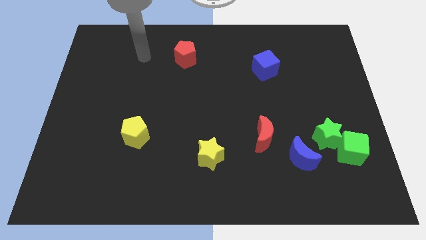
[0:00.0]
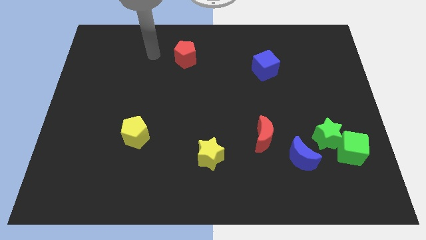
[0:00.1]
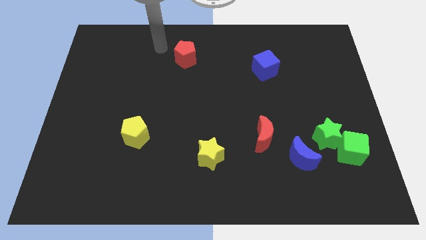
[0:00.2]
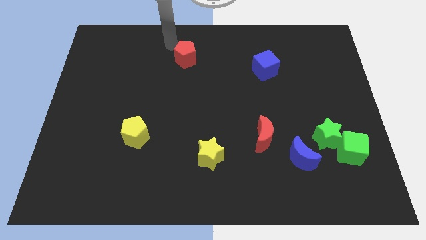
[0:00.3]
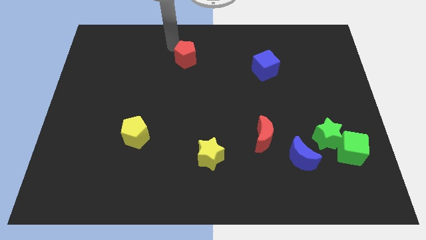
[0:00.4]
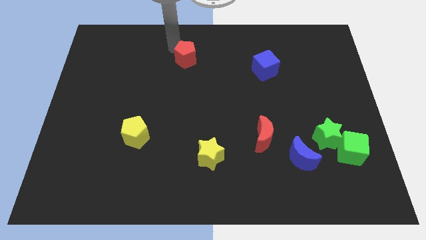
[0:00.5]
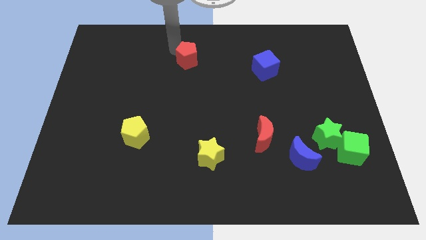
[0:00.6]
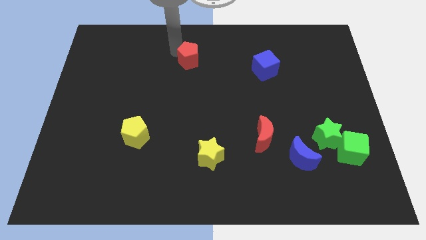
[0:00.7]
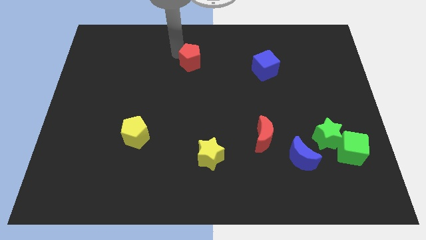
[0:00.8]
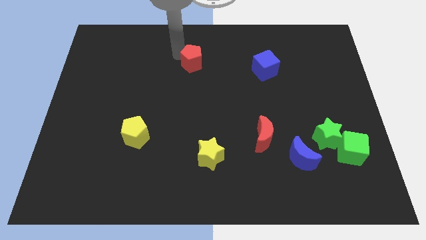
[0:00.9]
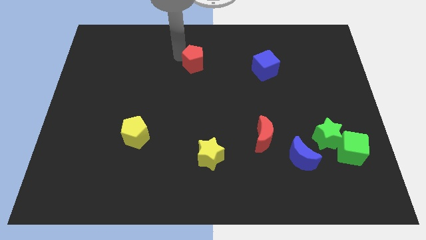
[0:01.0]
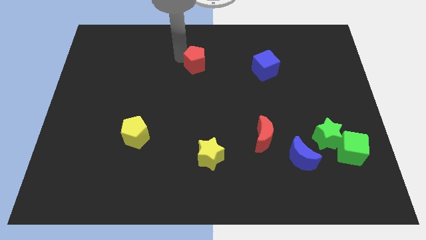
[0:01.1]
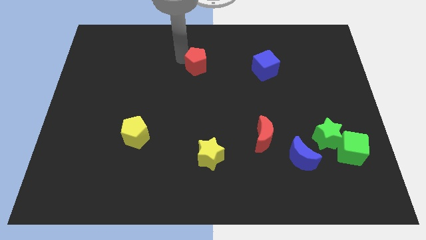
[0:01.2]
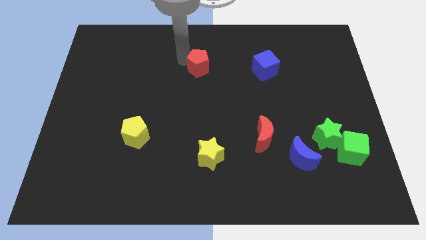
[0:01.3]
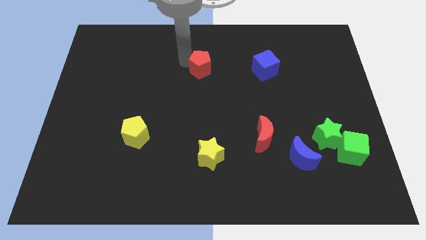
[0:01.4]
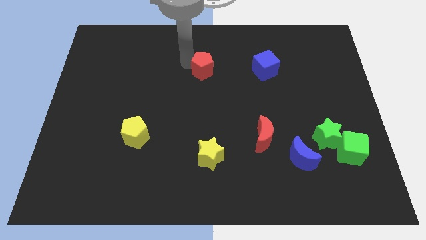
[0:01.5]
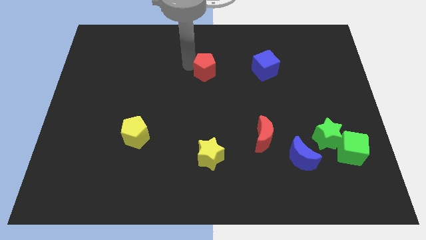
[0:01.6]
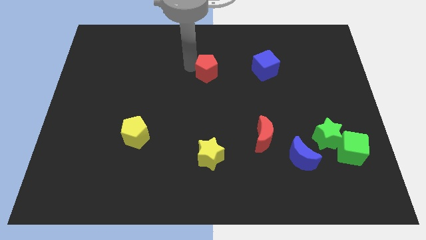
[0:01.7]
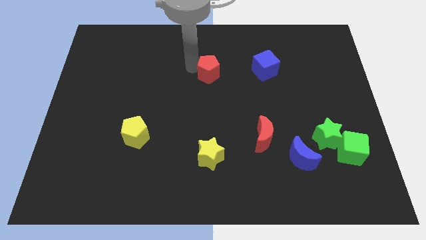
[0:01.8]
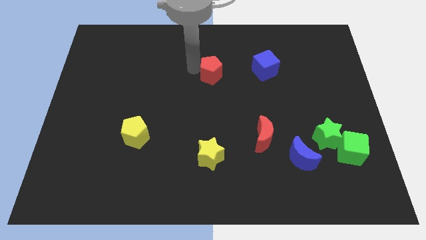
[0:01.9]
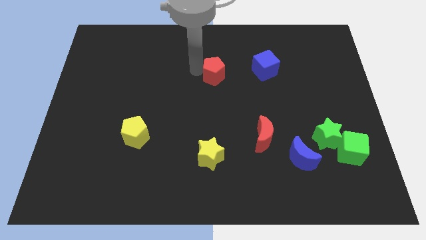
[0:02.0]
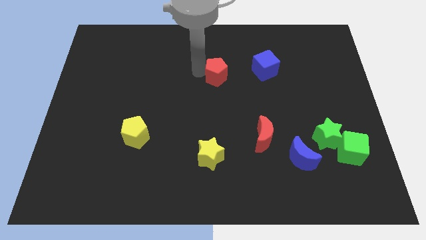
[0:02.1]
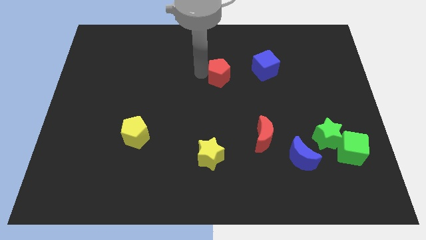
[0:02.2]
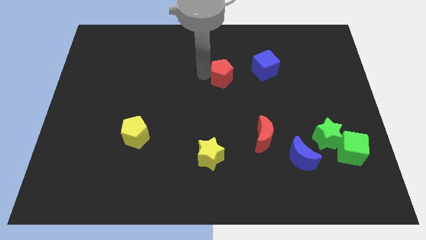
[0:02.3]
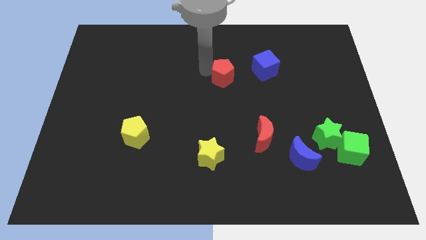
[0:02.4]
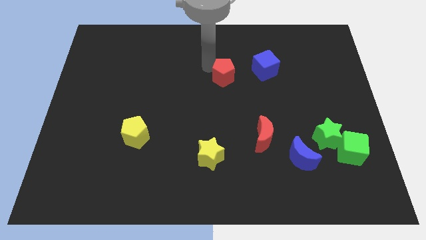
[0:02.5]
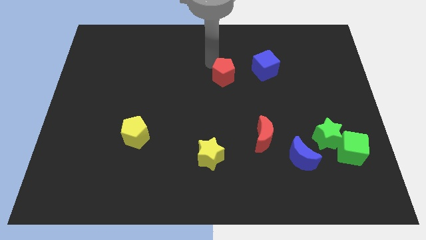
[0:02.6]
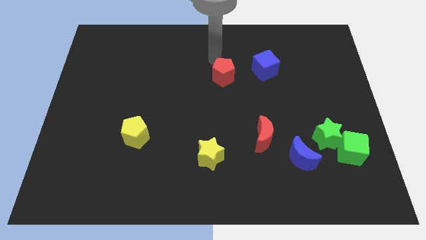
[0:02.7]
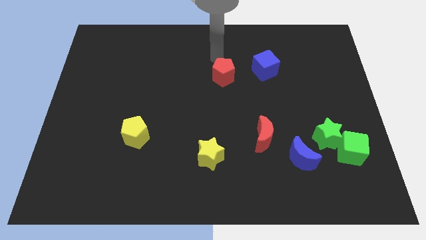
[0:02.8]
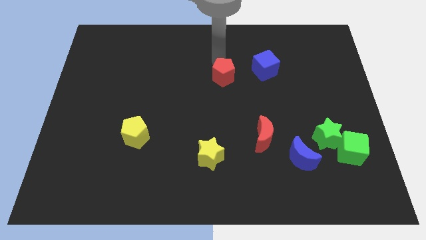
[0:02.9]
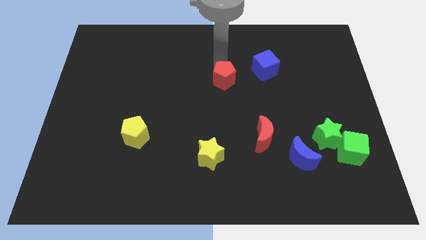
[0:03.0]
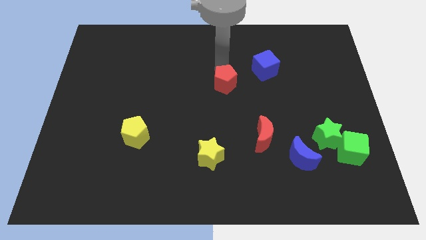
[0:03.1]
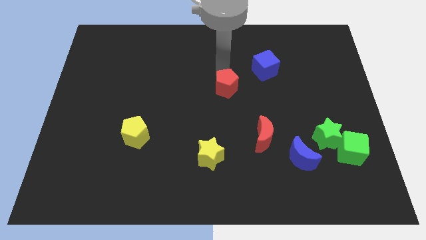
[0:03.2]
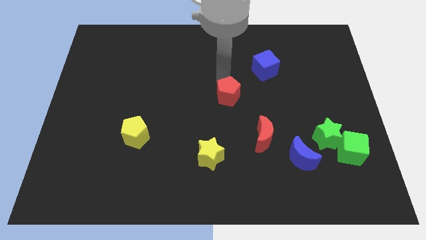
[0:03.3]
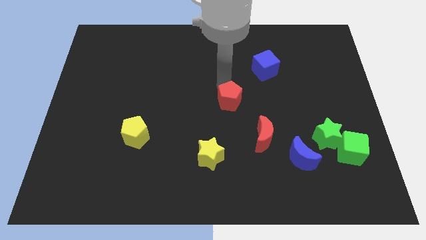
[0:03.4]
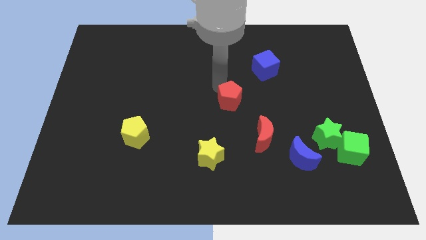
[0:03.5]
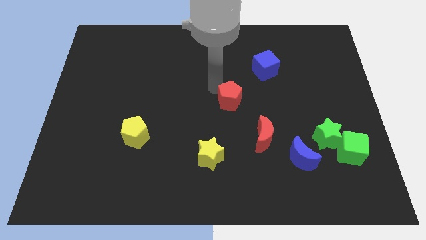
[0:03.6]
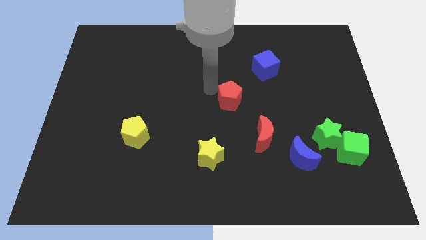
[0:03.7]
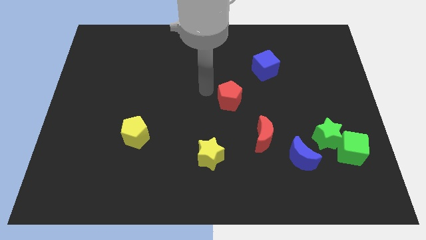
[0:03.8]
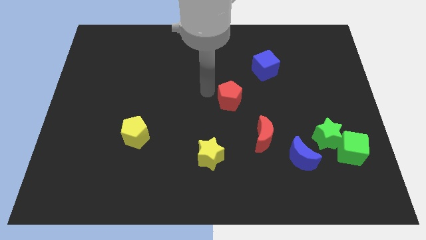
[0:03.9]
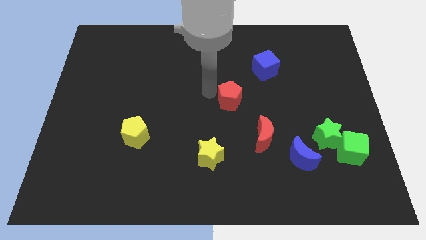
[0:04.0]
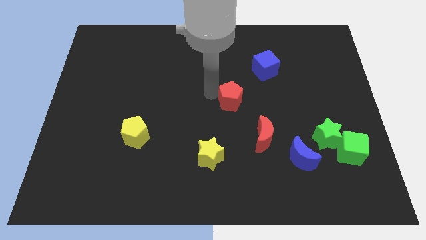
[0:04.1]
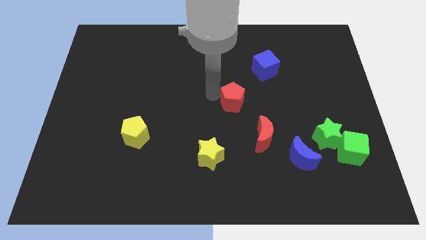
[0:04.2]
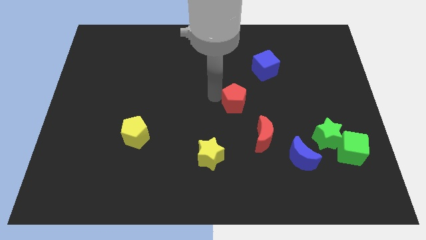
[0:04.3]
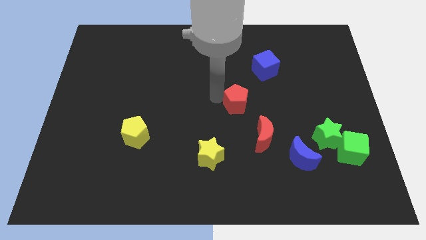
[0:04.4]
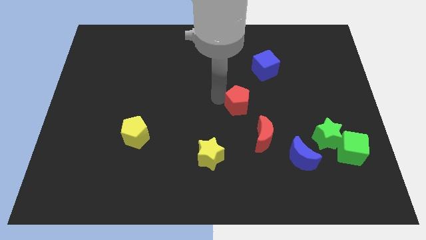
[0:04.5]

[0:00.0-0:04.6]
push the red pentagon diagonally down and to the right

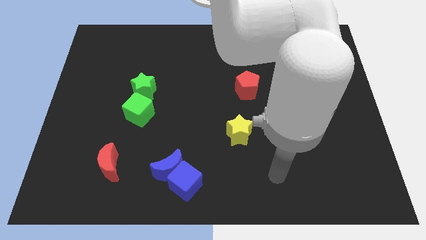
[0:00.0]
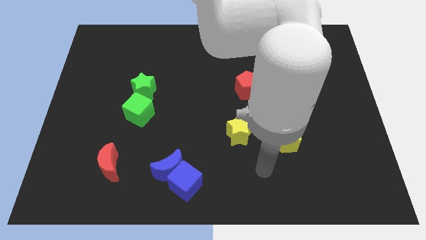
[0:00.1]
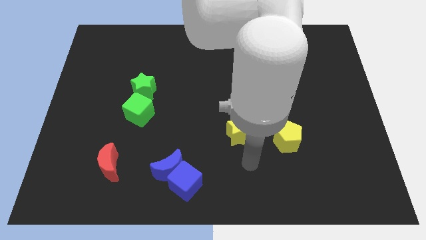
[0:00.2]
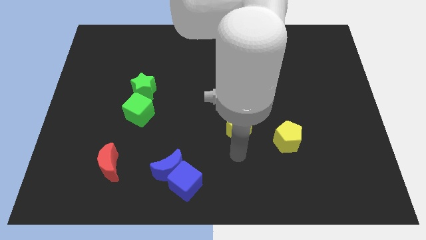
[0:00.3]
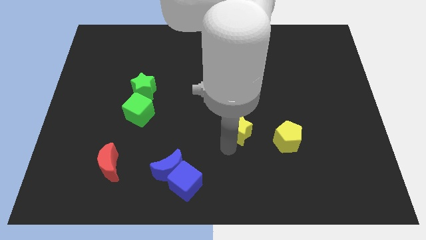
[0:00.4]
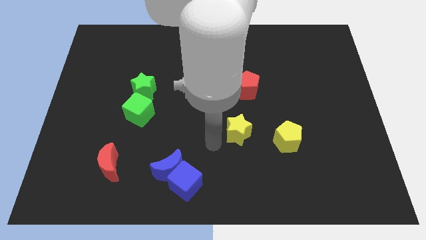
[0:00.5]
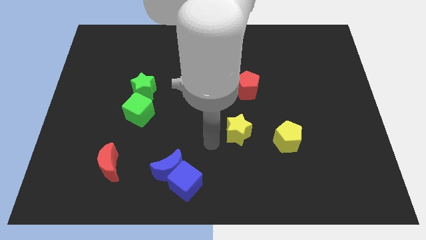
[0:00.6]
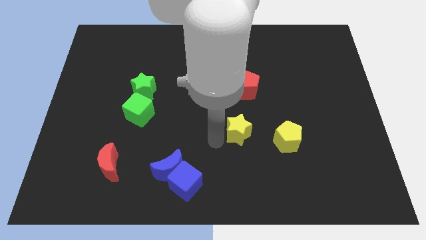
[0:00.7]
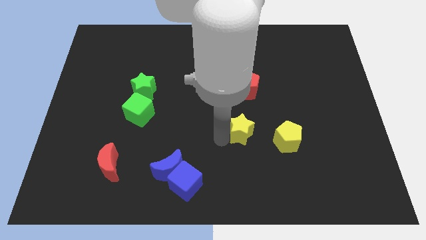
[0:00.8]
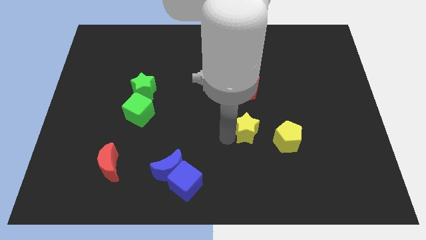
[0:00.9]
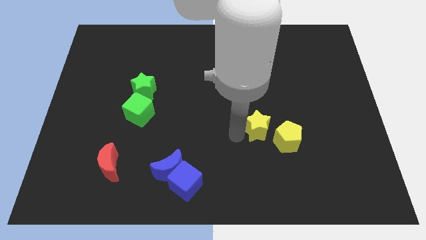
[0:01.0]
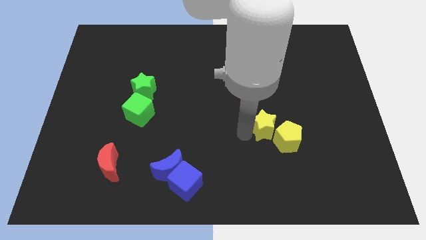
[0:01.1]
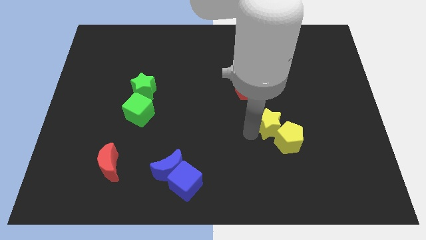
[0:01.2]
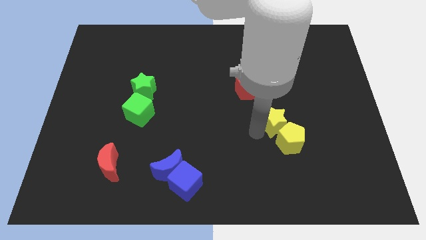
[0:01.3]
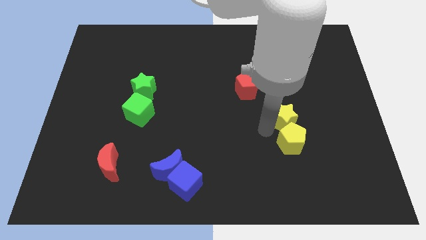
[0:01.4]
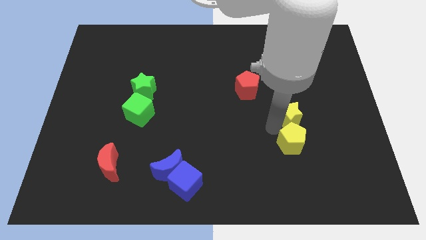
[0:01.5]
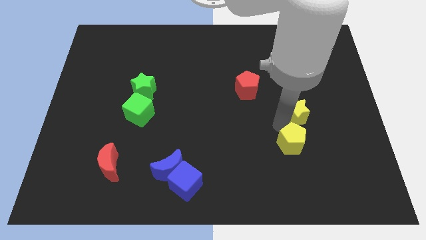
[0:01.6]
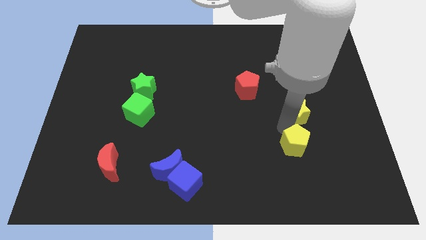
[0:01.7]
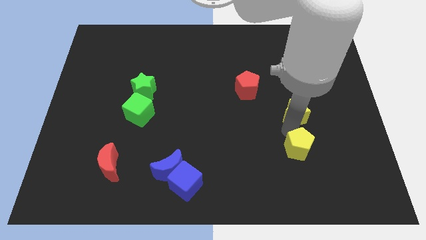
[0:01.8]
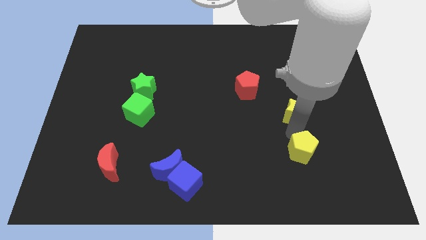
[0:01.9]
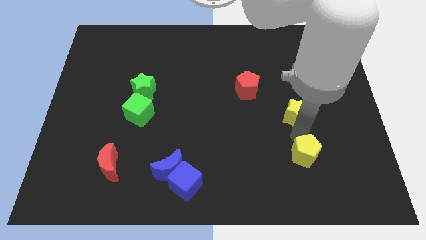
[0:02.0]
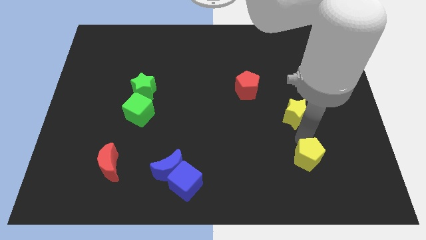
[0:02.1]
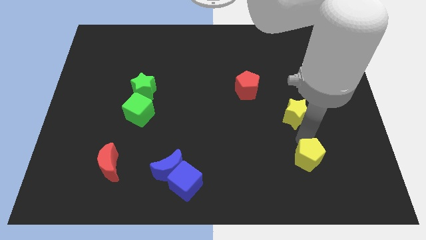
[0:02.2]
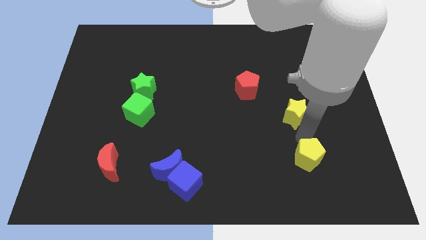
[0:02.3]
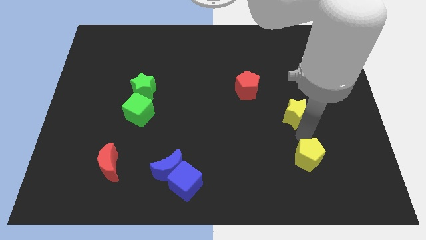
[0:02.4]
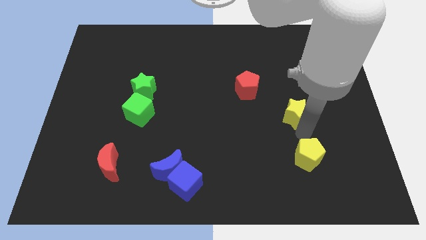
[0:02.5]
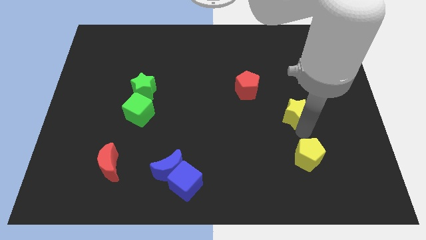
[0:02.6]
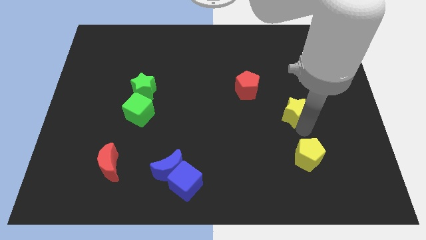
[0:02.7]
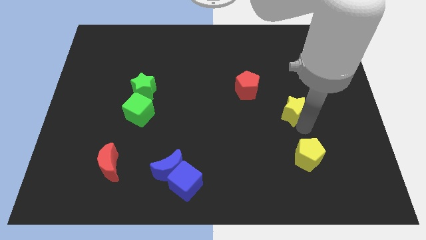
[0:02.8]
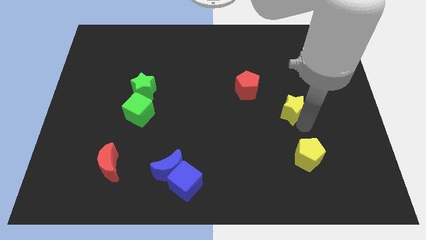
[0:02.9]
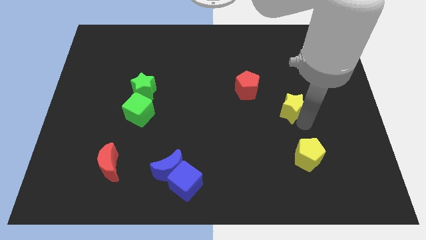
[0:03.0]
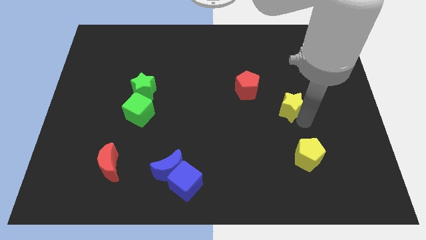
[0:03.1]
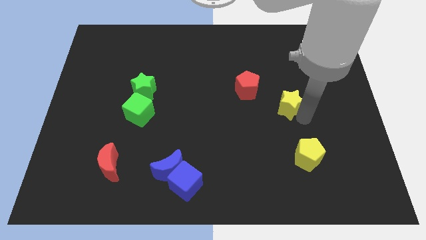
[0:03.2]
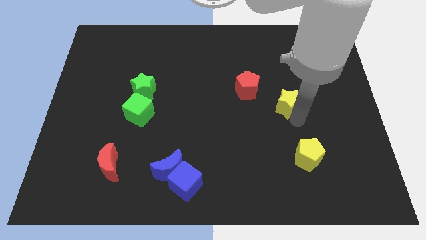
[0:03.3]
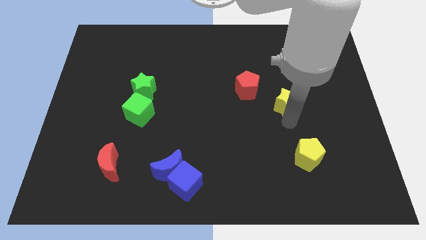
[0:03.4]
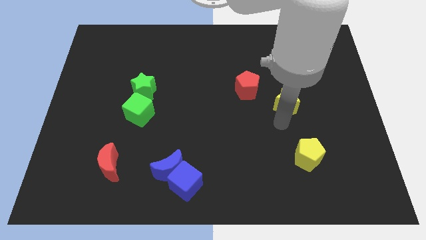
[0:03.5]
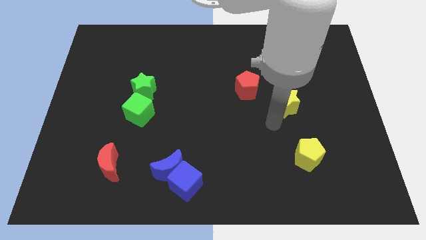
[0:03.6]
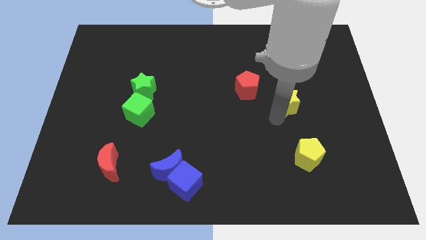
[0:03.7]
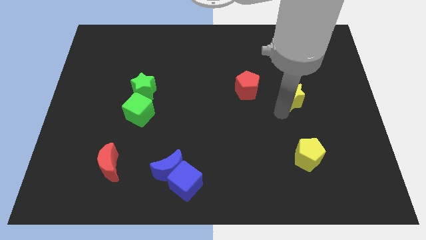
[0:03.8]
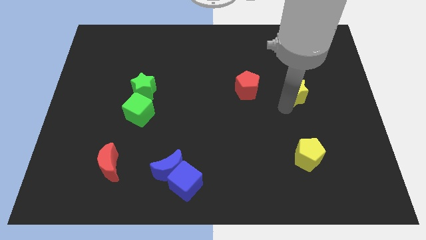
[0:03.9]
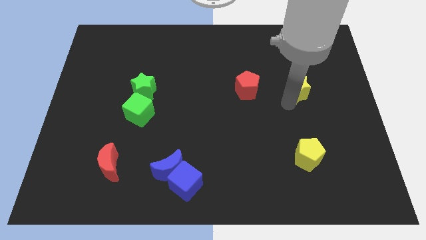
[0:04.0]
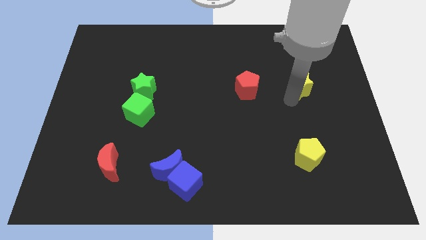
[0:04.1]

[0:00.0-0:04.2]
push the yellow star upwards and then right
